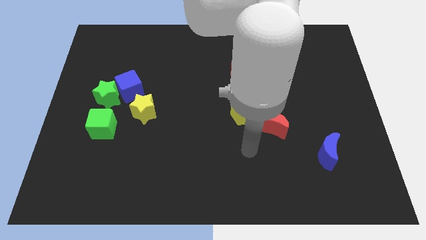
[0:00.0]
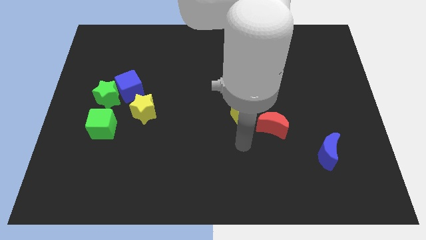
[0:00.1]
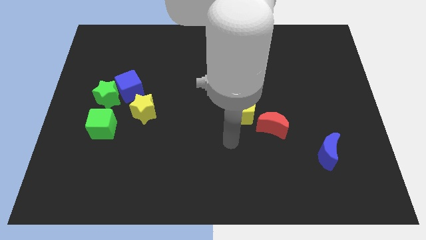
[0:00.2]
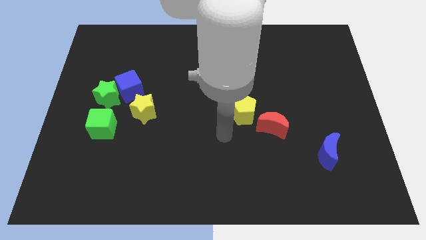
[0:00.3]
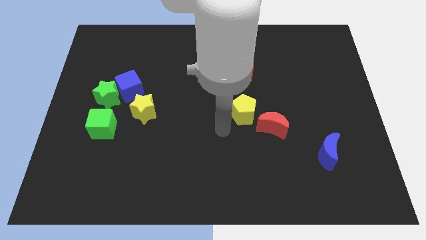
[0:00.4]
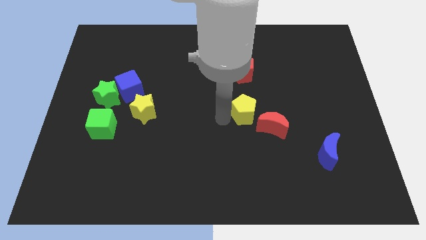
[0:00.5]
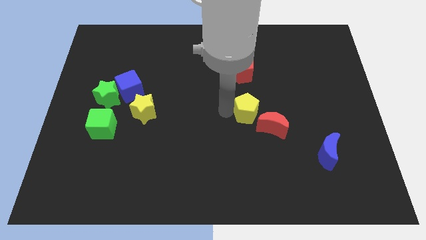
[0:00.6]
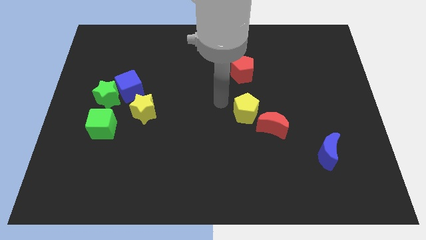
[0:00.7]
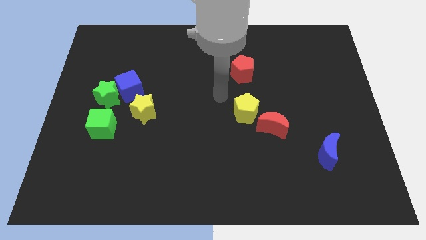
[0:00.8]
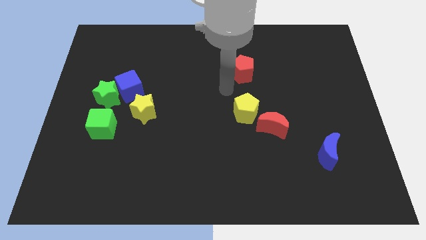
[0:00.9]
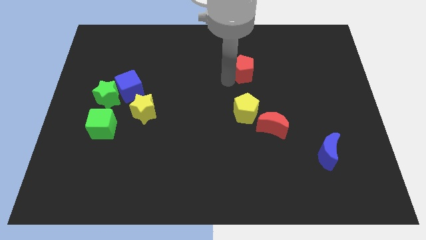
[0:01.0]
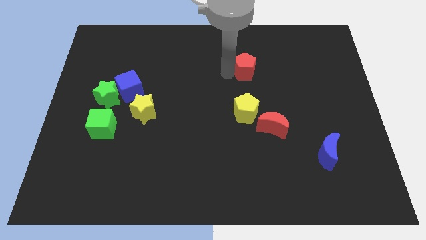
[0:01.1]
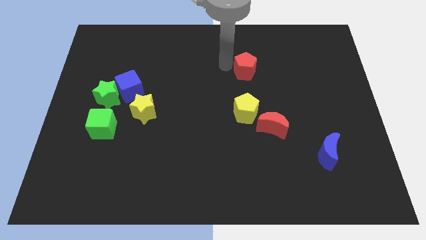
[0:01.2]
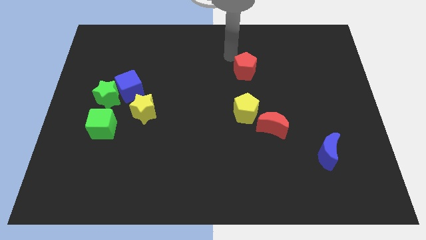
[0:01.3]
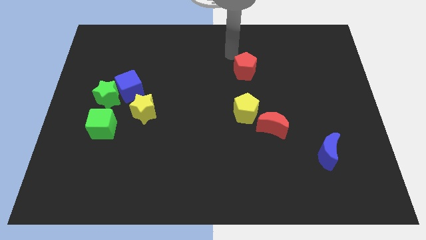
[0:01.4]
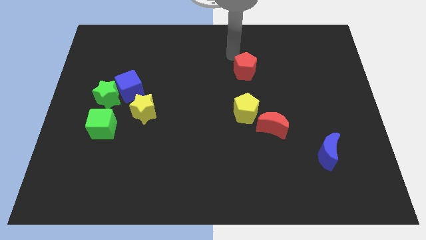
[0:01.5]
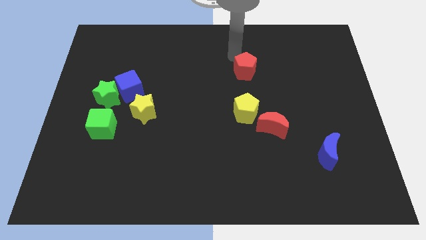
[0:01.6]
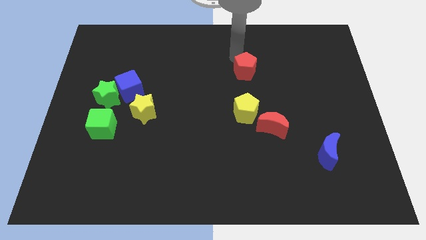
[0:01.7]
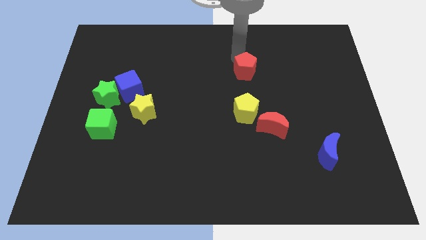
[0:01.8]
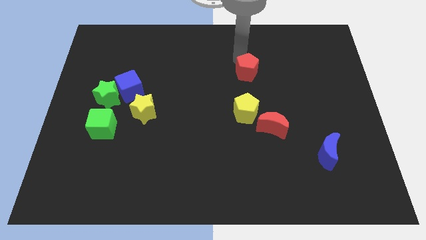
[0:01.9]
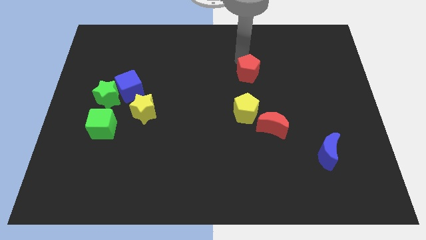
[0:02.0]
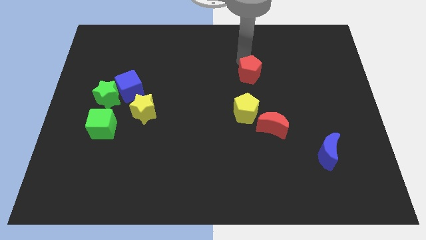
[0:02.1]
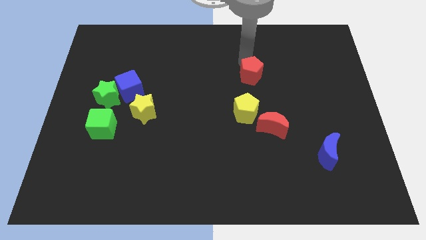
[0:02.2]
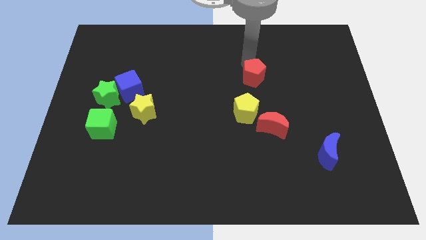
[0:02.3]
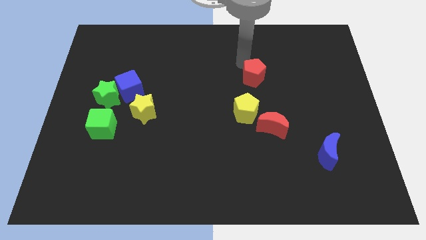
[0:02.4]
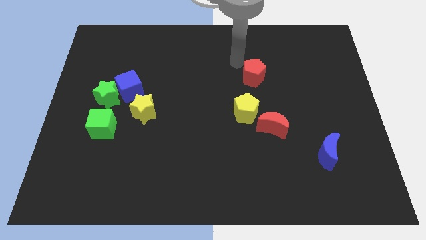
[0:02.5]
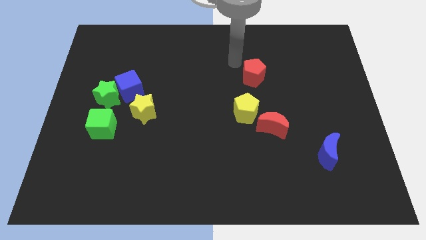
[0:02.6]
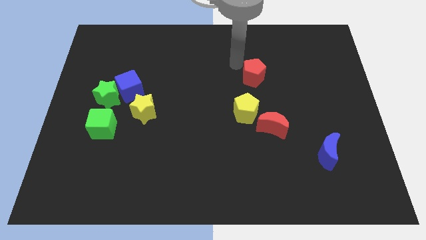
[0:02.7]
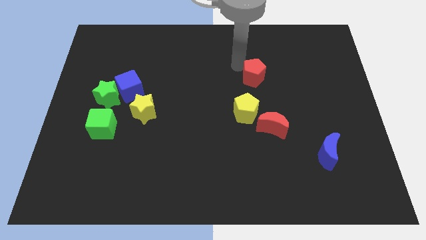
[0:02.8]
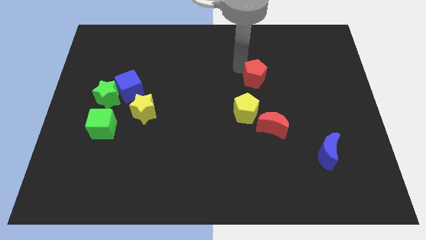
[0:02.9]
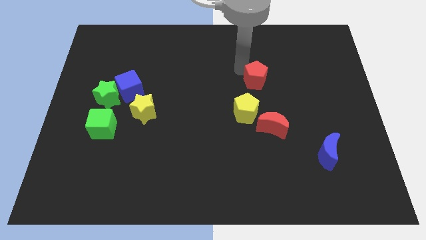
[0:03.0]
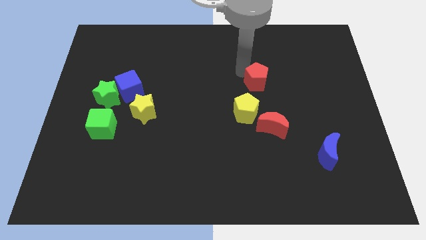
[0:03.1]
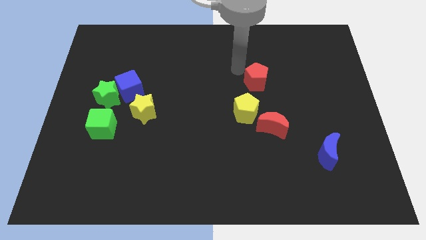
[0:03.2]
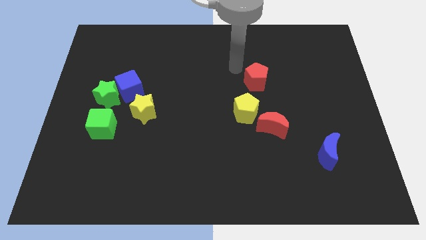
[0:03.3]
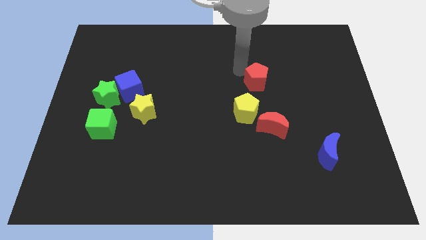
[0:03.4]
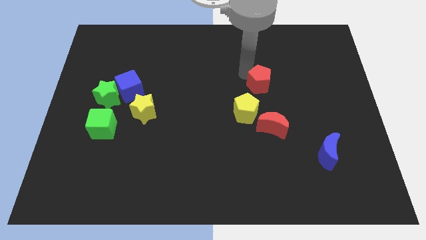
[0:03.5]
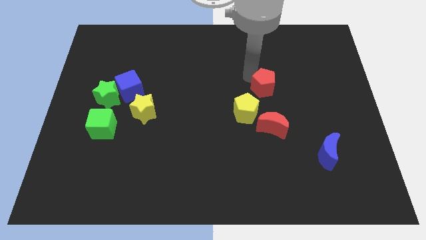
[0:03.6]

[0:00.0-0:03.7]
slightly push the red pentagon down and right

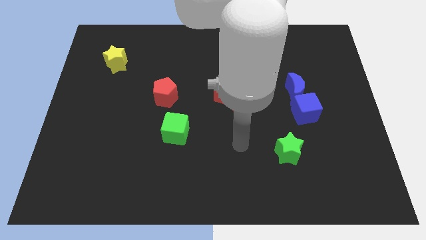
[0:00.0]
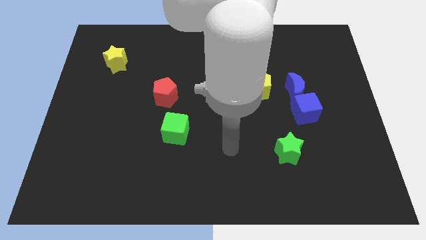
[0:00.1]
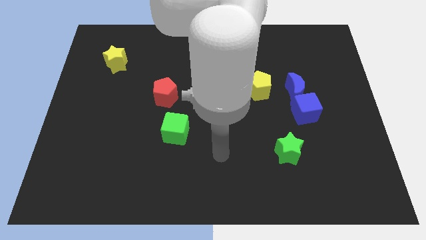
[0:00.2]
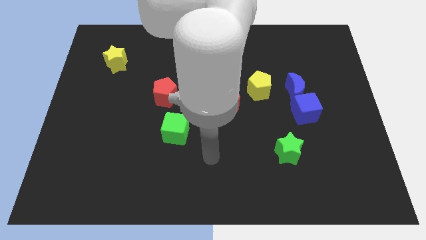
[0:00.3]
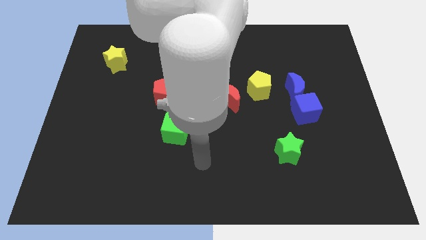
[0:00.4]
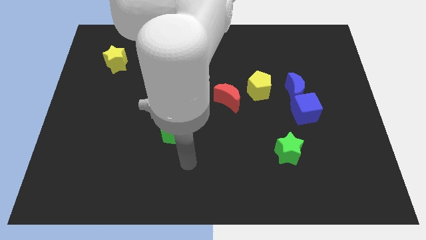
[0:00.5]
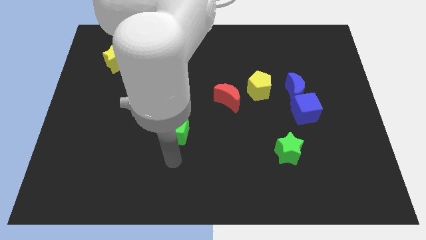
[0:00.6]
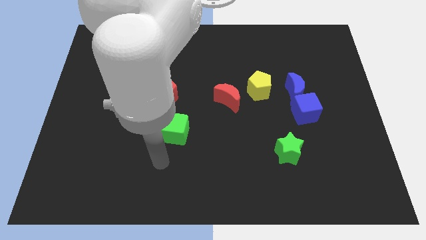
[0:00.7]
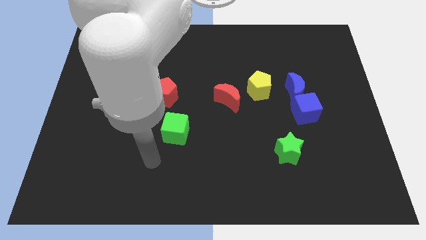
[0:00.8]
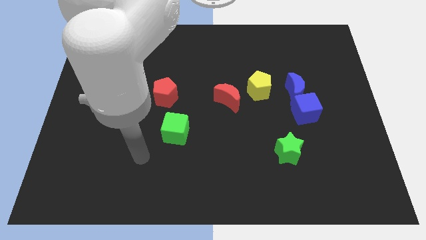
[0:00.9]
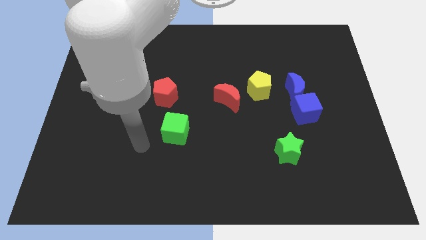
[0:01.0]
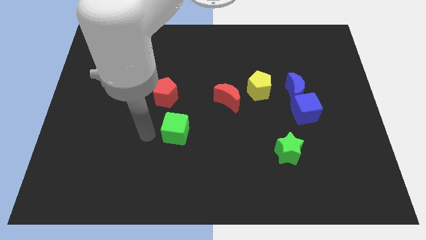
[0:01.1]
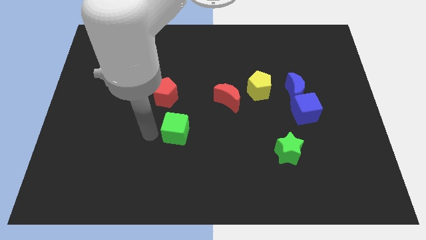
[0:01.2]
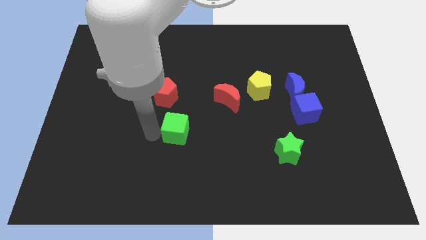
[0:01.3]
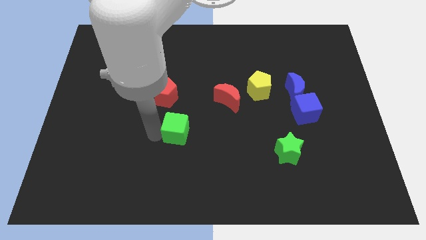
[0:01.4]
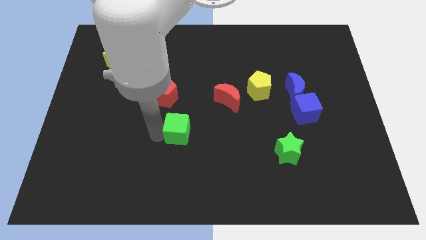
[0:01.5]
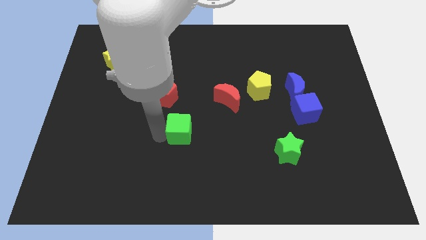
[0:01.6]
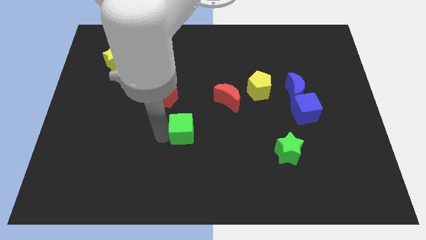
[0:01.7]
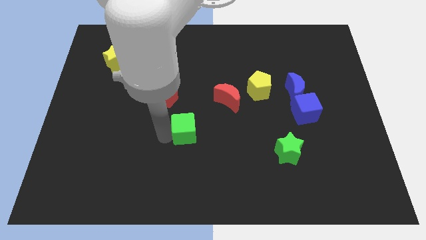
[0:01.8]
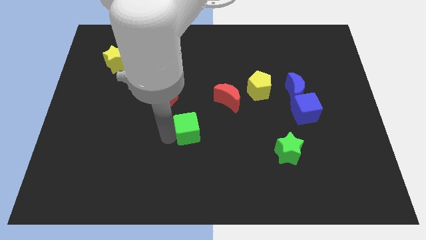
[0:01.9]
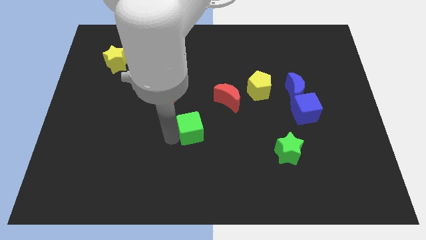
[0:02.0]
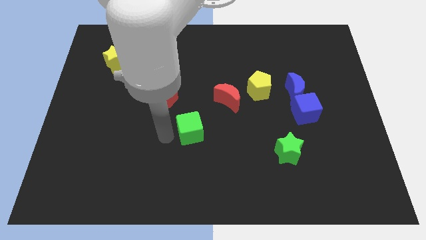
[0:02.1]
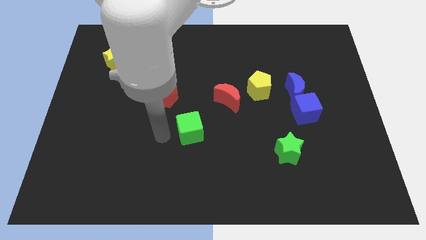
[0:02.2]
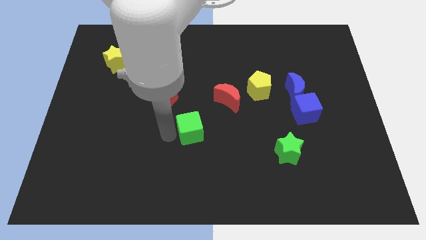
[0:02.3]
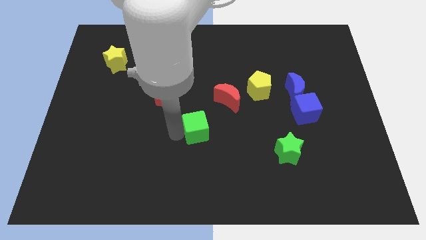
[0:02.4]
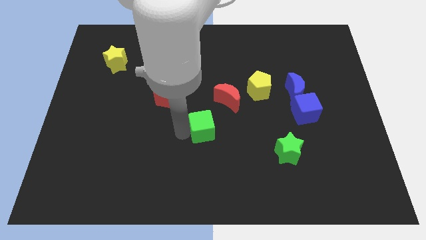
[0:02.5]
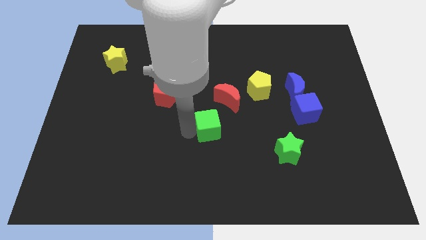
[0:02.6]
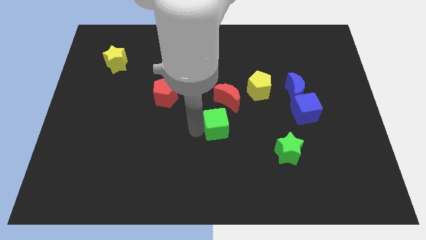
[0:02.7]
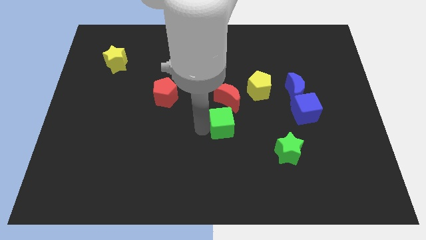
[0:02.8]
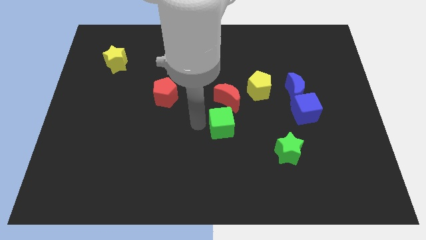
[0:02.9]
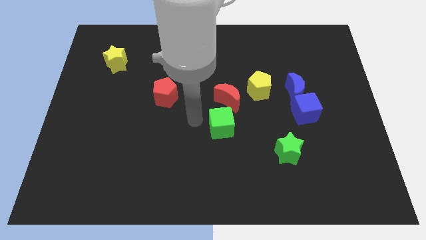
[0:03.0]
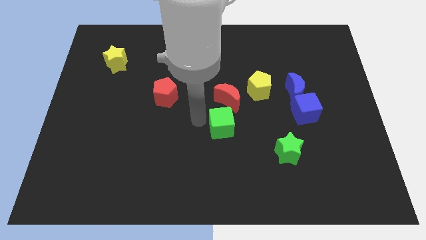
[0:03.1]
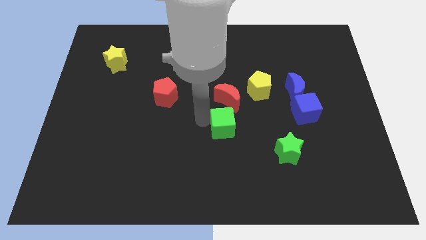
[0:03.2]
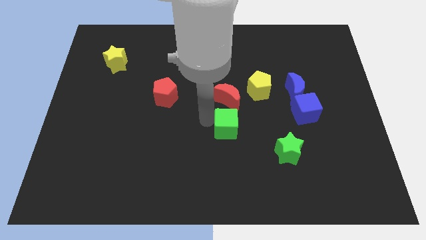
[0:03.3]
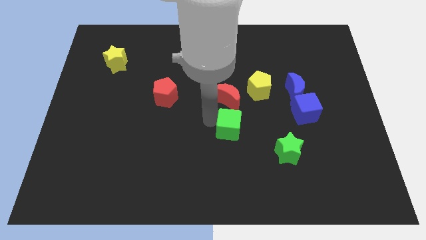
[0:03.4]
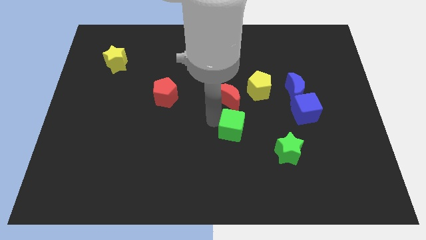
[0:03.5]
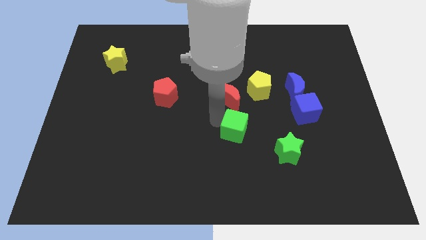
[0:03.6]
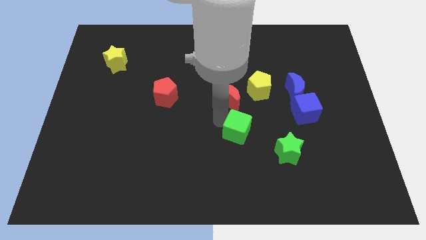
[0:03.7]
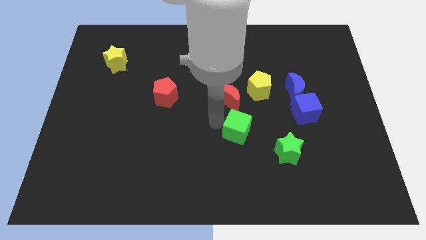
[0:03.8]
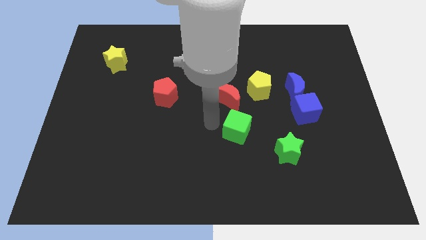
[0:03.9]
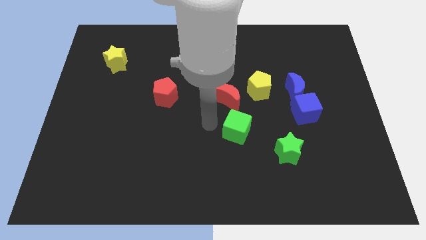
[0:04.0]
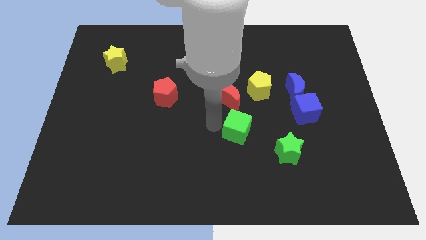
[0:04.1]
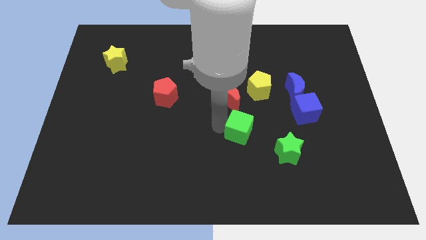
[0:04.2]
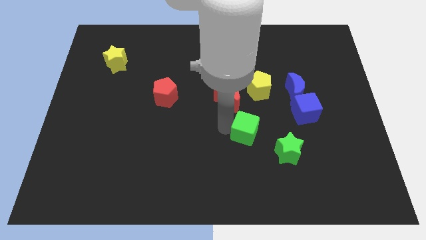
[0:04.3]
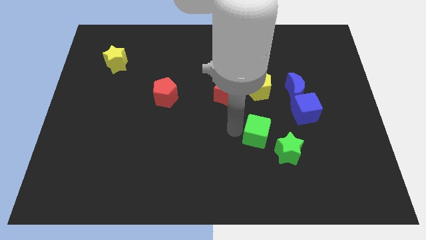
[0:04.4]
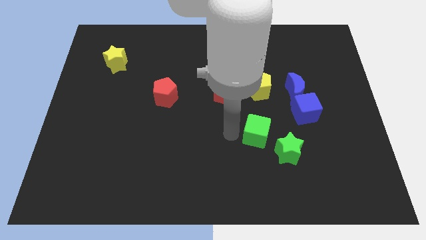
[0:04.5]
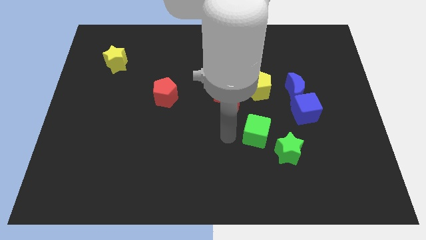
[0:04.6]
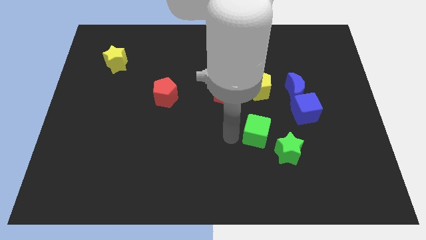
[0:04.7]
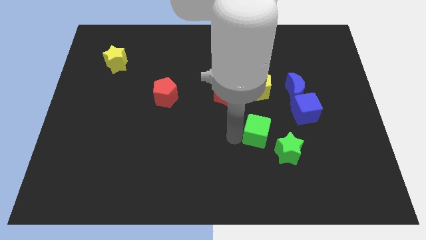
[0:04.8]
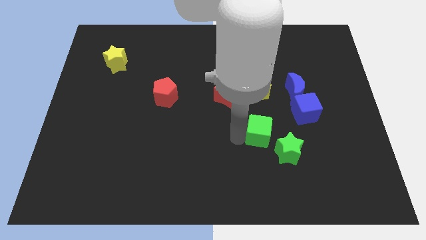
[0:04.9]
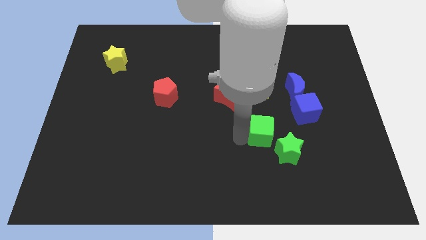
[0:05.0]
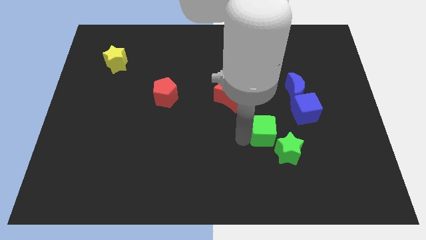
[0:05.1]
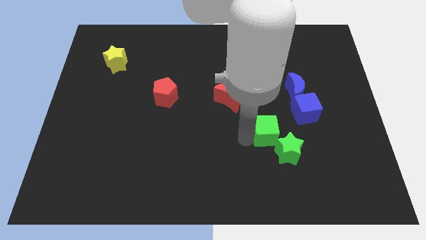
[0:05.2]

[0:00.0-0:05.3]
move the green cube to the right
